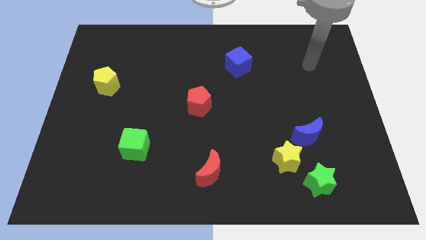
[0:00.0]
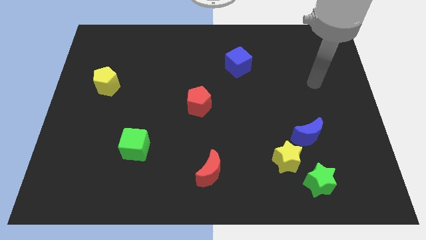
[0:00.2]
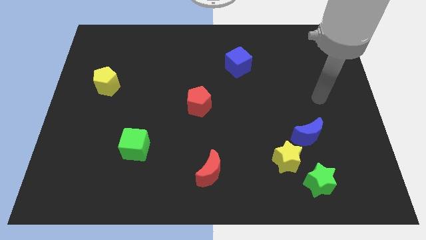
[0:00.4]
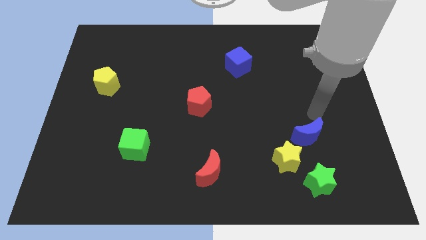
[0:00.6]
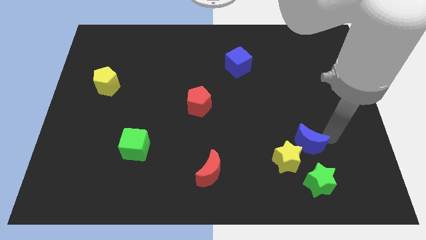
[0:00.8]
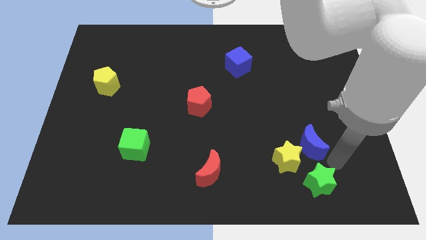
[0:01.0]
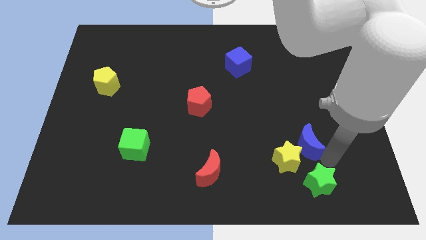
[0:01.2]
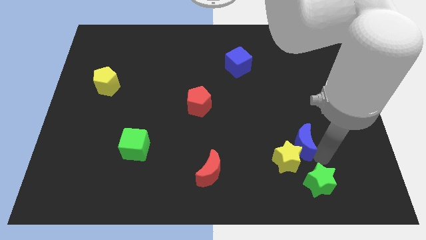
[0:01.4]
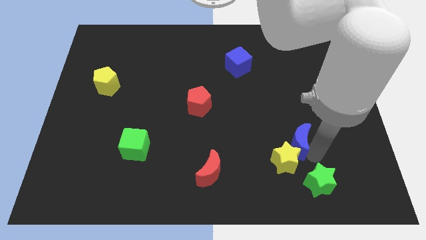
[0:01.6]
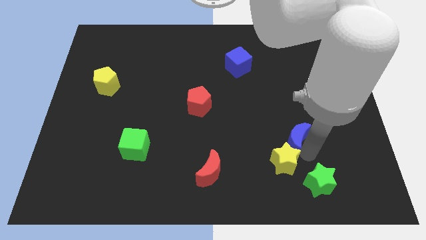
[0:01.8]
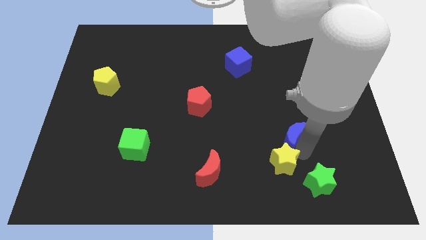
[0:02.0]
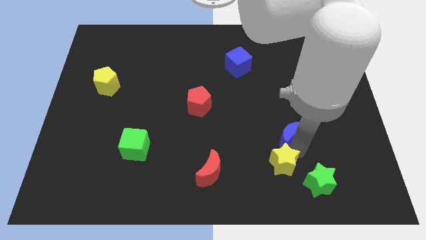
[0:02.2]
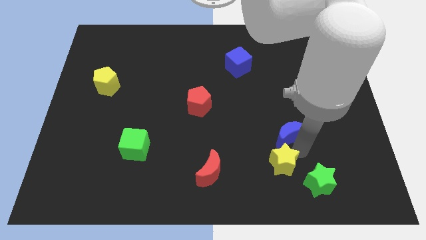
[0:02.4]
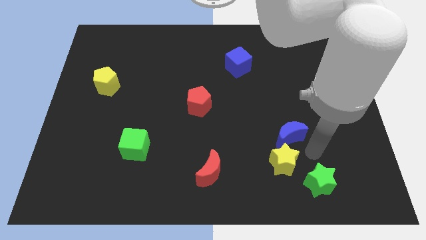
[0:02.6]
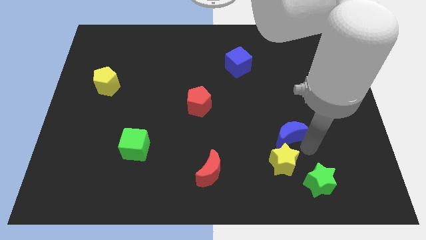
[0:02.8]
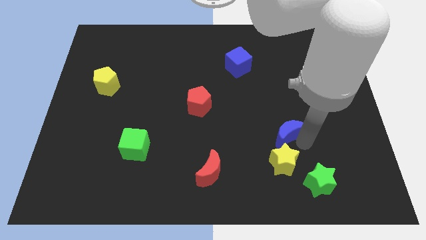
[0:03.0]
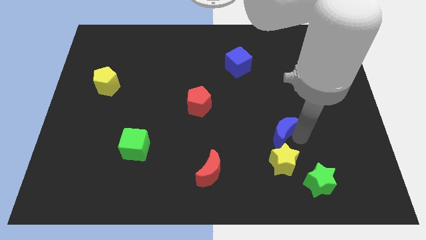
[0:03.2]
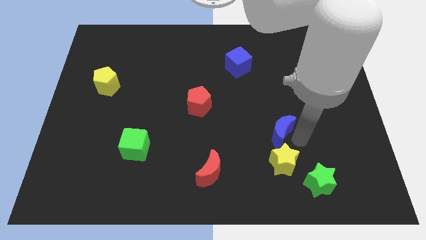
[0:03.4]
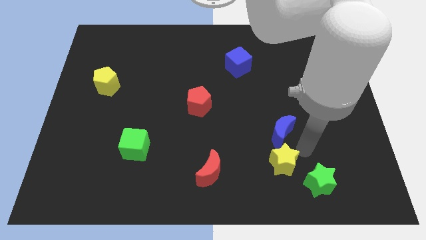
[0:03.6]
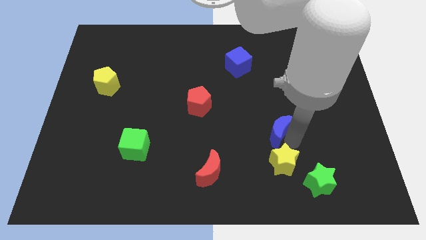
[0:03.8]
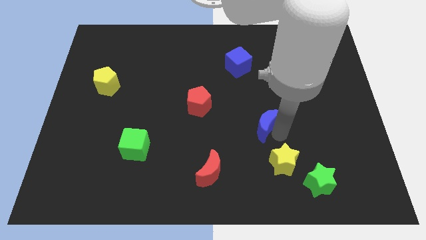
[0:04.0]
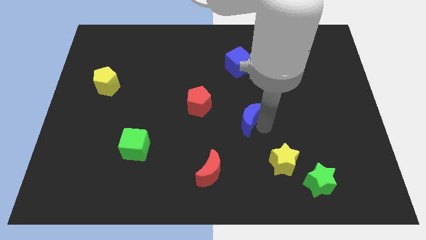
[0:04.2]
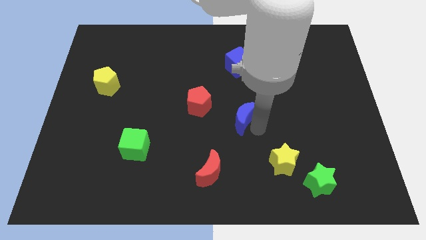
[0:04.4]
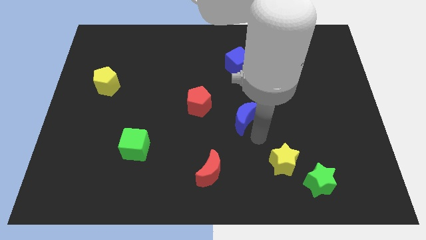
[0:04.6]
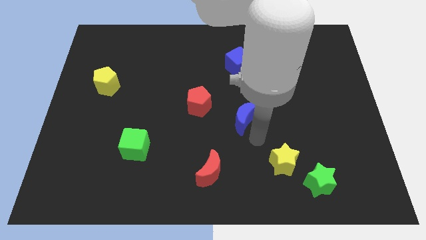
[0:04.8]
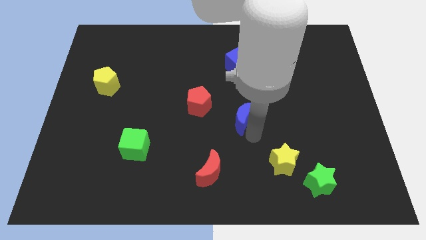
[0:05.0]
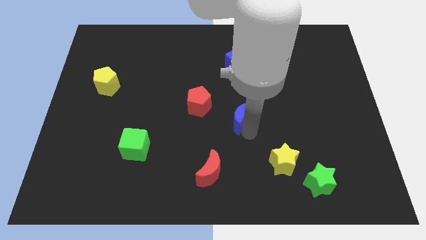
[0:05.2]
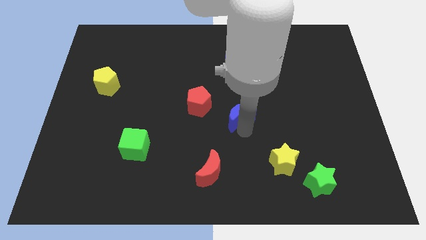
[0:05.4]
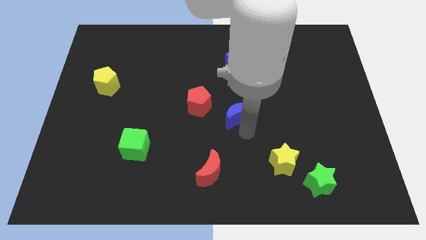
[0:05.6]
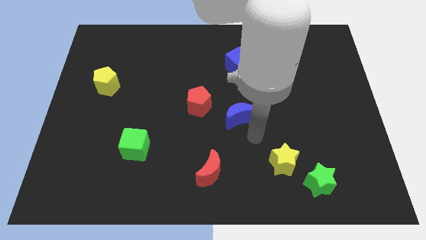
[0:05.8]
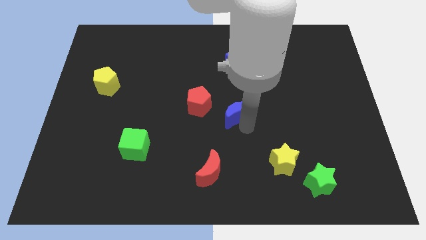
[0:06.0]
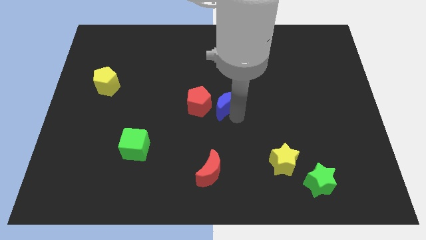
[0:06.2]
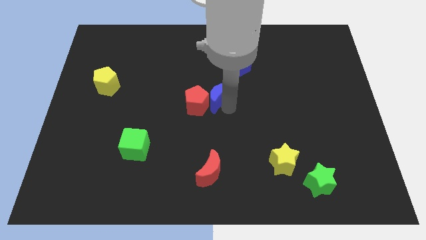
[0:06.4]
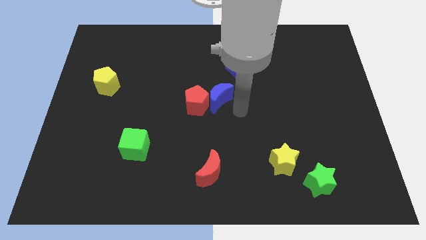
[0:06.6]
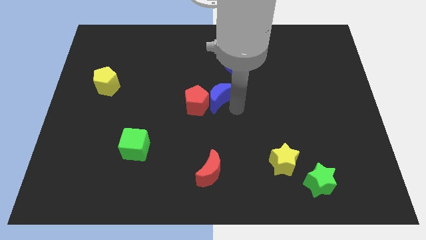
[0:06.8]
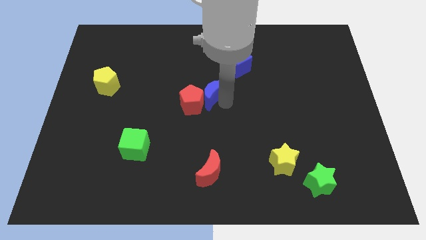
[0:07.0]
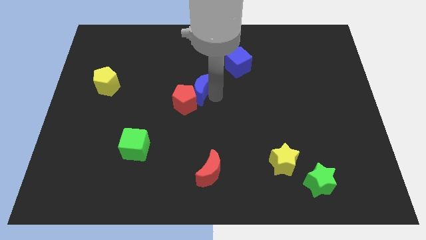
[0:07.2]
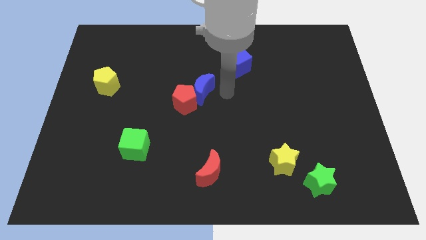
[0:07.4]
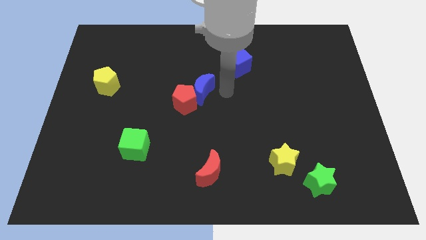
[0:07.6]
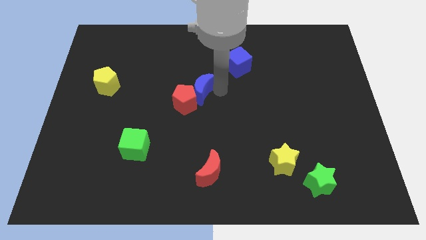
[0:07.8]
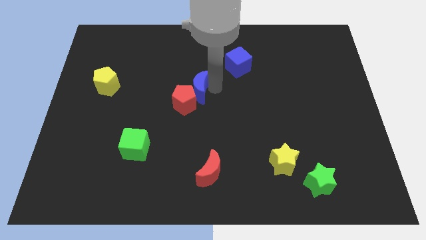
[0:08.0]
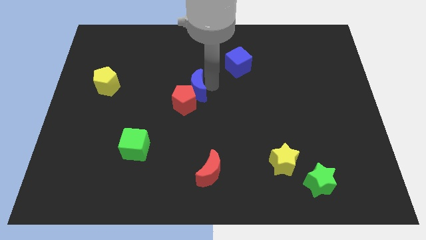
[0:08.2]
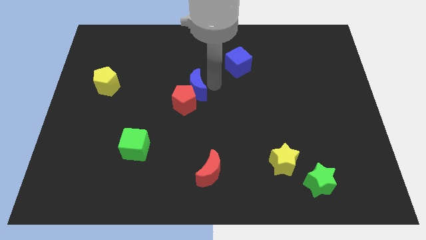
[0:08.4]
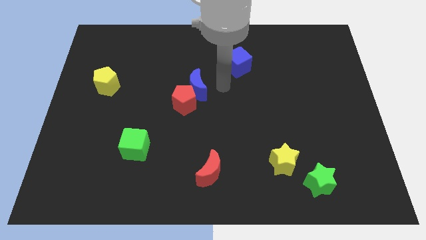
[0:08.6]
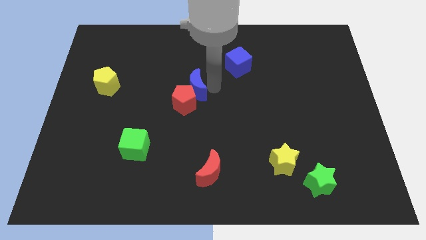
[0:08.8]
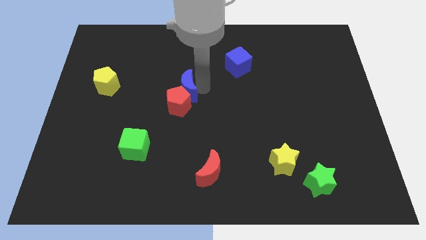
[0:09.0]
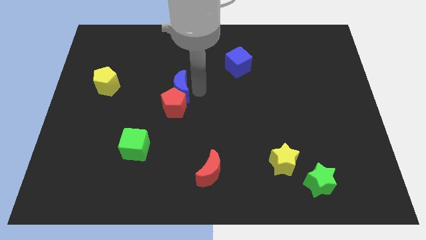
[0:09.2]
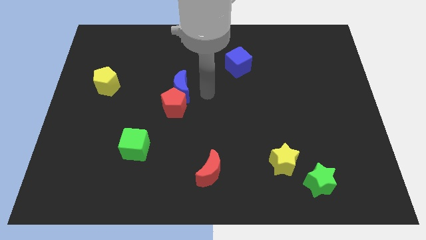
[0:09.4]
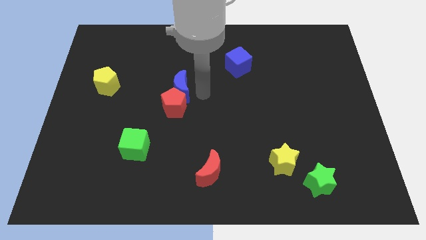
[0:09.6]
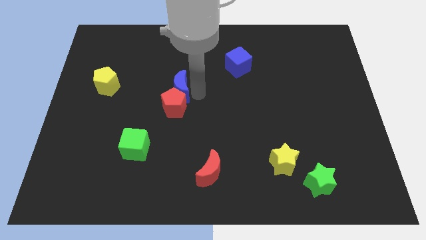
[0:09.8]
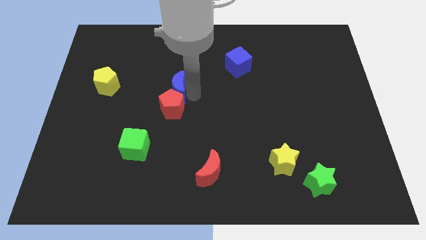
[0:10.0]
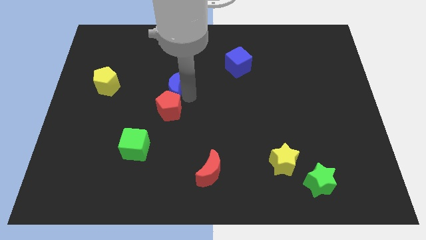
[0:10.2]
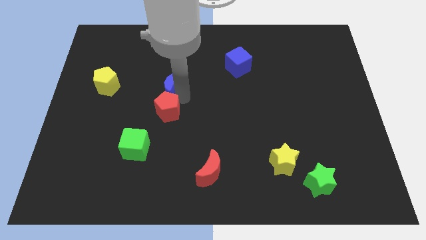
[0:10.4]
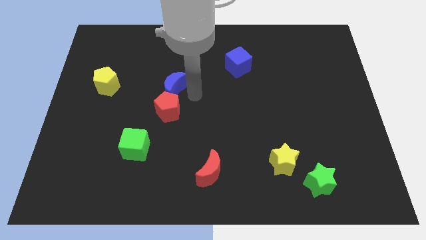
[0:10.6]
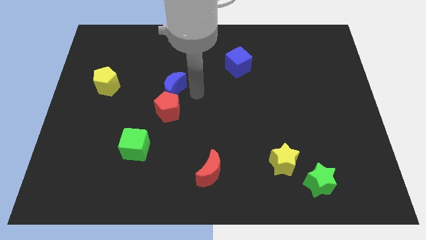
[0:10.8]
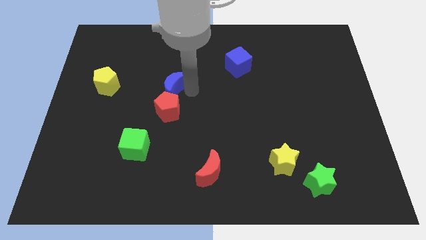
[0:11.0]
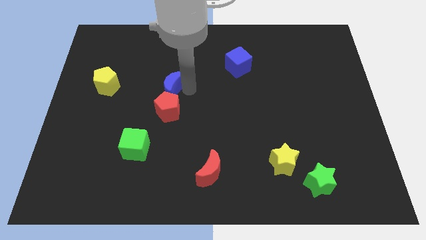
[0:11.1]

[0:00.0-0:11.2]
slide the blue moon to the right of the yellow pentagon

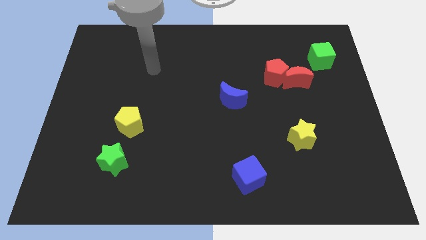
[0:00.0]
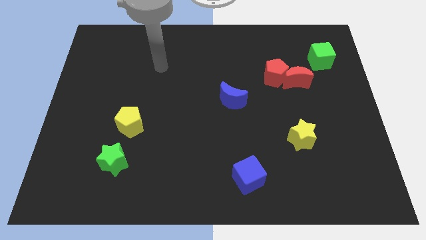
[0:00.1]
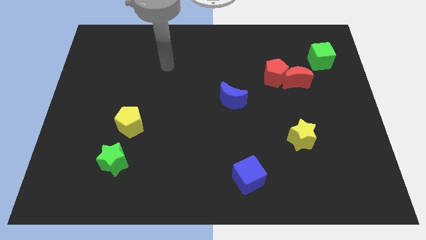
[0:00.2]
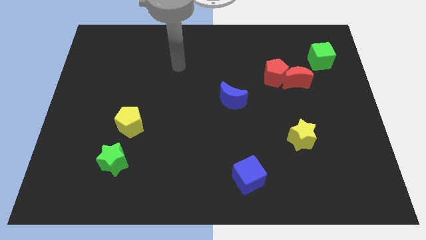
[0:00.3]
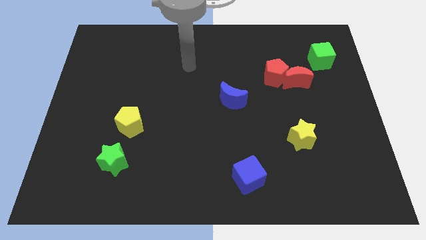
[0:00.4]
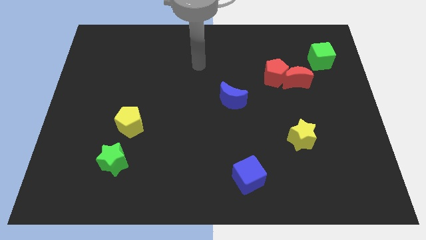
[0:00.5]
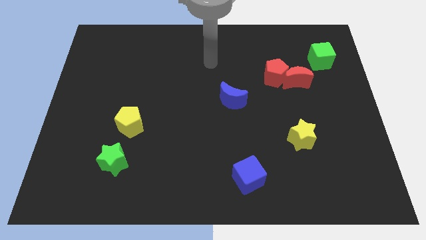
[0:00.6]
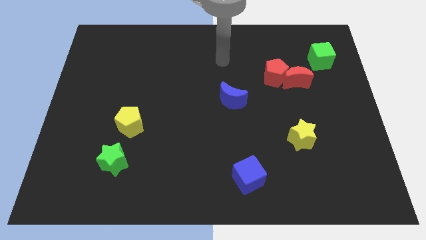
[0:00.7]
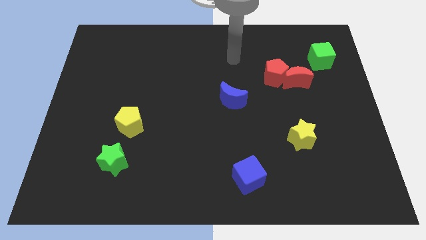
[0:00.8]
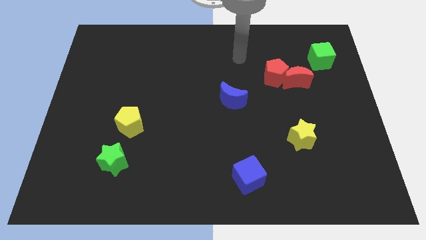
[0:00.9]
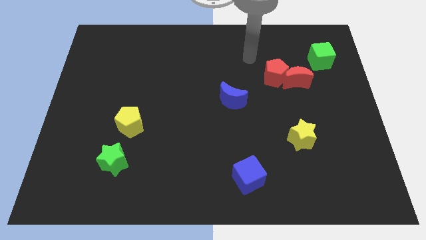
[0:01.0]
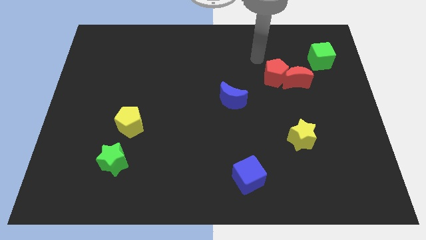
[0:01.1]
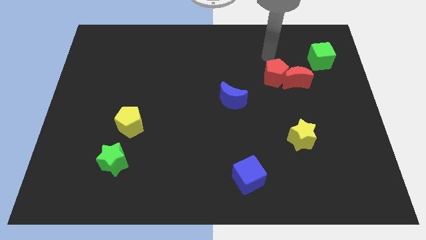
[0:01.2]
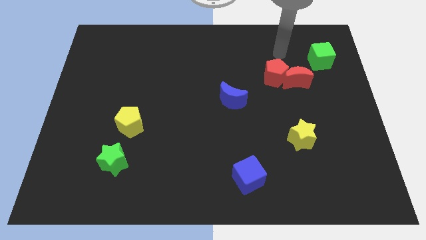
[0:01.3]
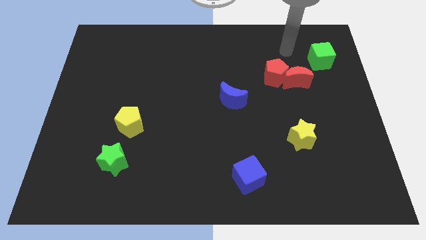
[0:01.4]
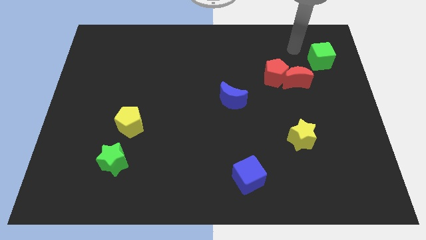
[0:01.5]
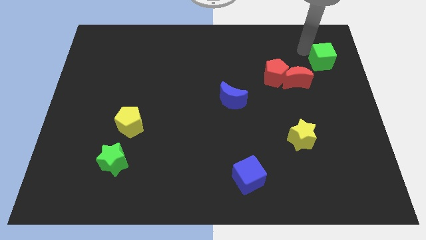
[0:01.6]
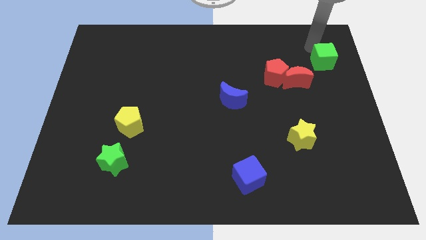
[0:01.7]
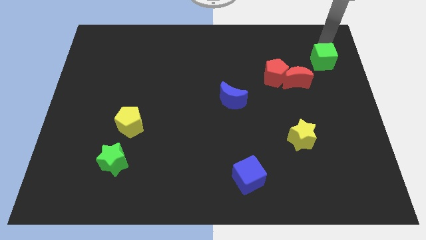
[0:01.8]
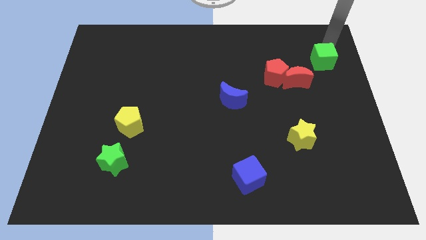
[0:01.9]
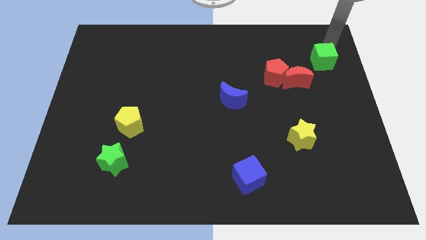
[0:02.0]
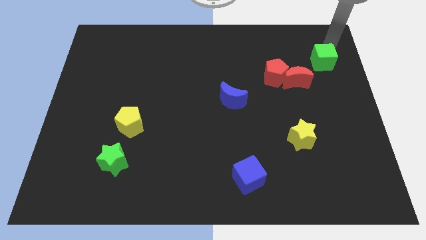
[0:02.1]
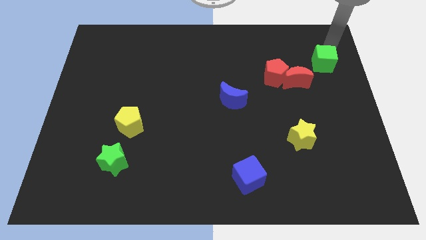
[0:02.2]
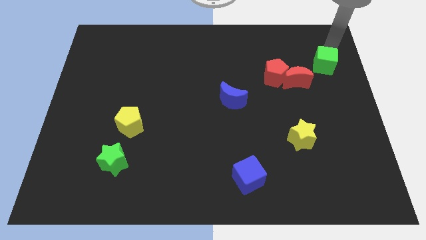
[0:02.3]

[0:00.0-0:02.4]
slide the green cube to the right of the red pentagon
